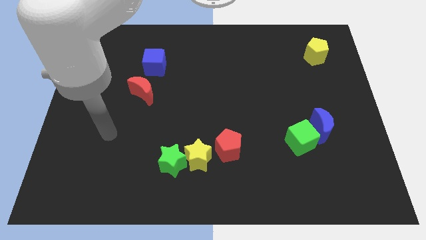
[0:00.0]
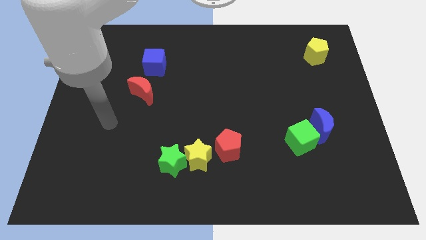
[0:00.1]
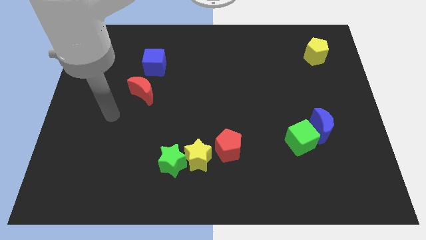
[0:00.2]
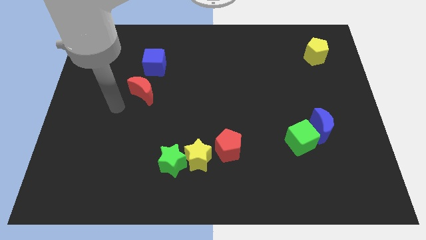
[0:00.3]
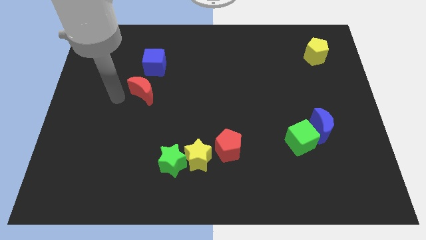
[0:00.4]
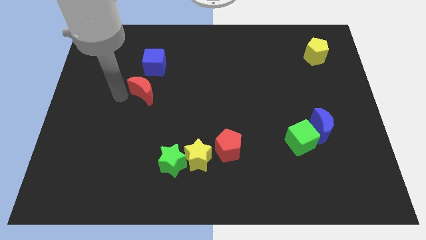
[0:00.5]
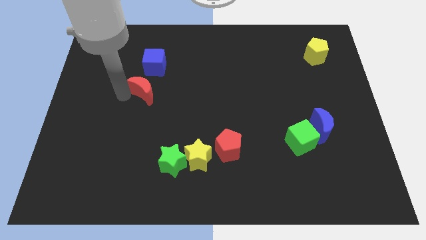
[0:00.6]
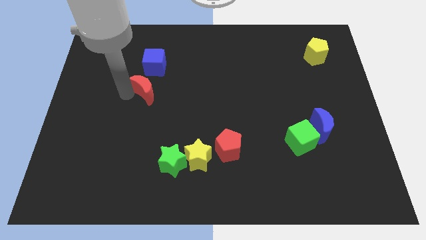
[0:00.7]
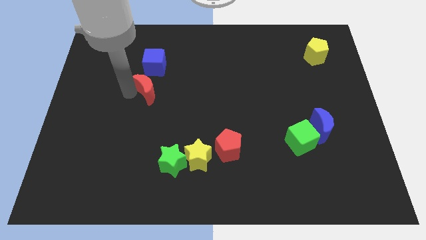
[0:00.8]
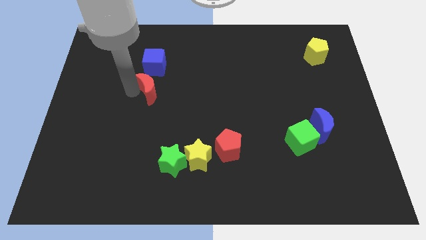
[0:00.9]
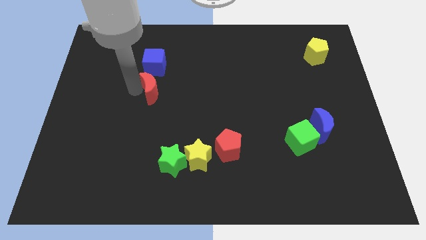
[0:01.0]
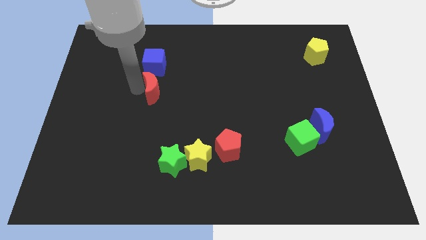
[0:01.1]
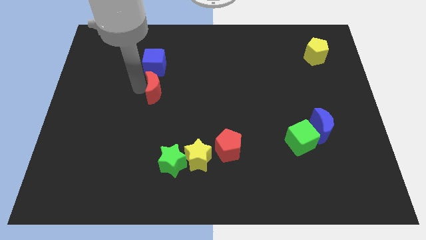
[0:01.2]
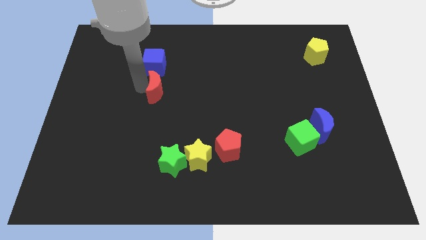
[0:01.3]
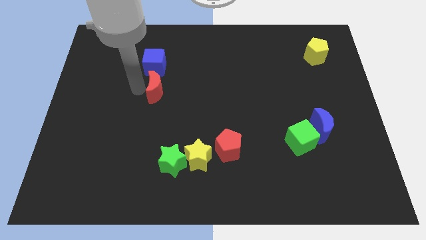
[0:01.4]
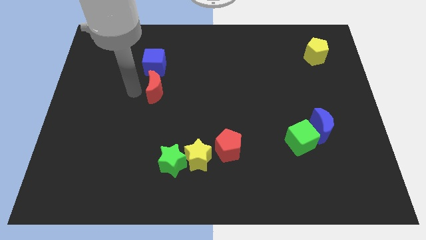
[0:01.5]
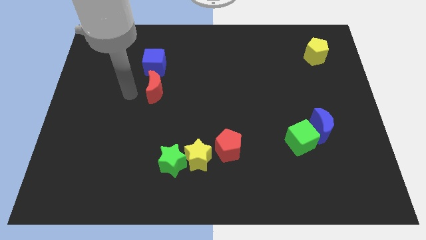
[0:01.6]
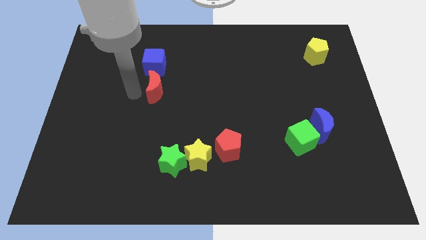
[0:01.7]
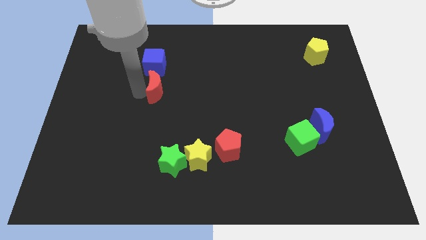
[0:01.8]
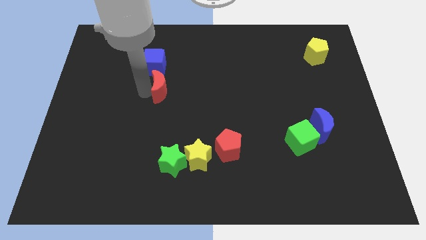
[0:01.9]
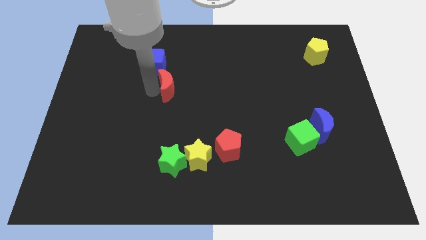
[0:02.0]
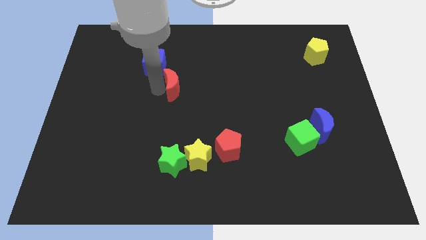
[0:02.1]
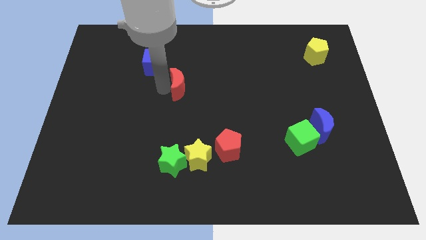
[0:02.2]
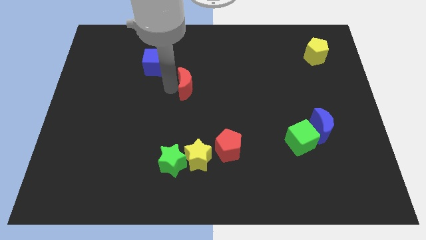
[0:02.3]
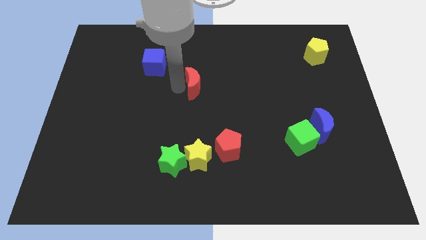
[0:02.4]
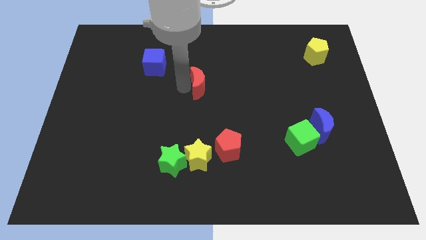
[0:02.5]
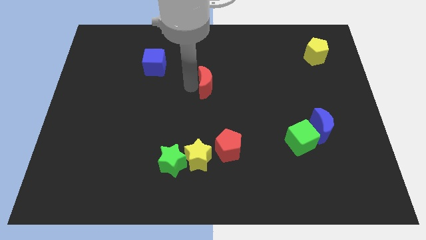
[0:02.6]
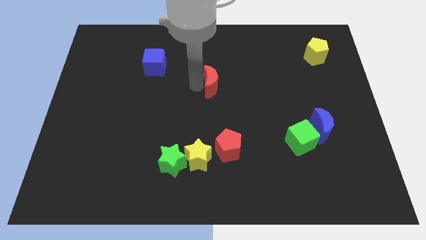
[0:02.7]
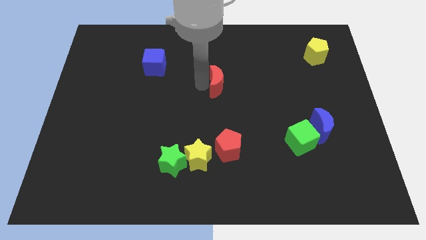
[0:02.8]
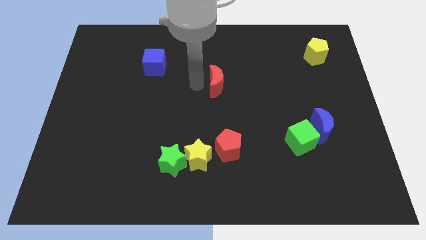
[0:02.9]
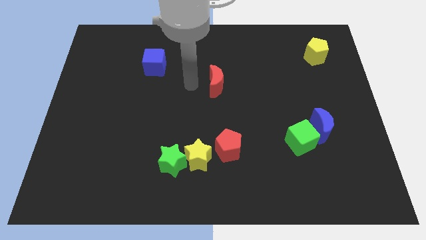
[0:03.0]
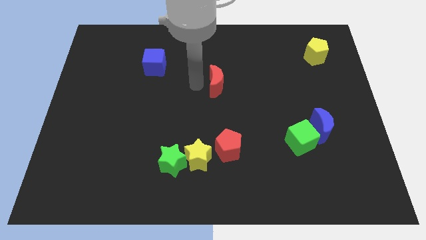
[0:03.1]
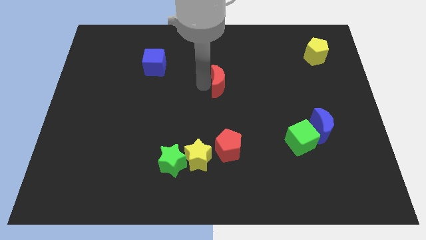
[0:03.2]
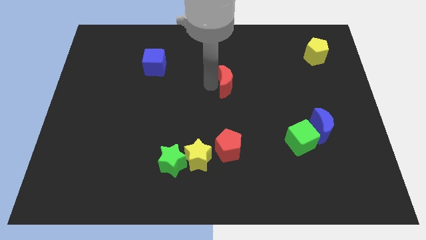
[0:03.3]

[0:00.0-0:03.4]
move the red moon right

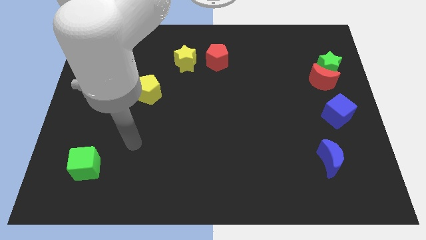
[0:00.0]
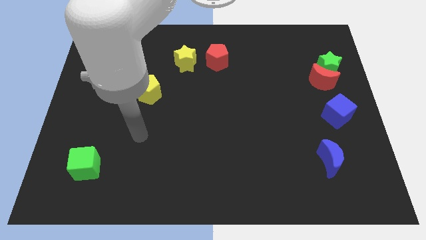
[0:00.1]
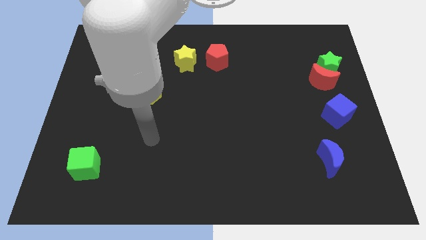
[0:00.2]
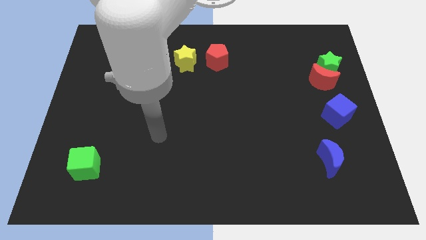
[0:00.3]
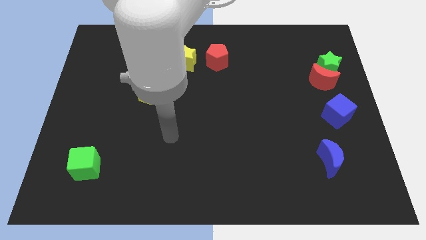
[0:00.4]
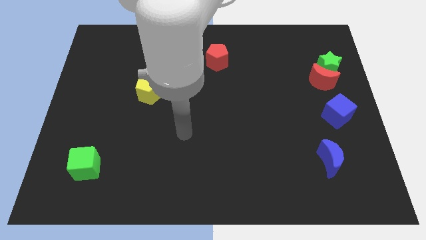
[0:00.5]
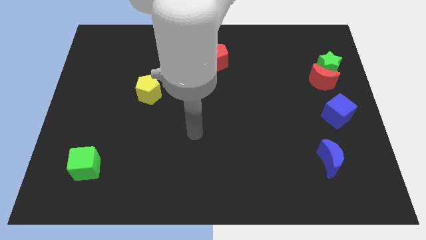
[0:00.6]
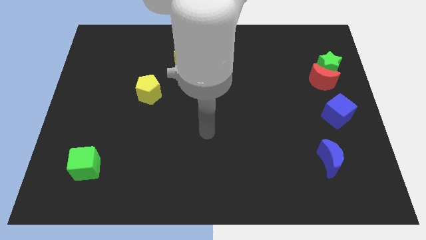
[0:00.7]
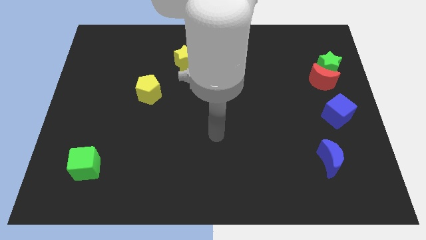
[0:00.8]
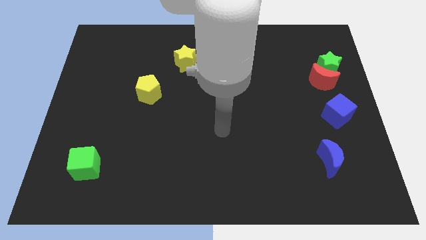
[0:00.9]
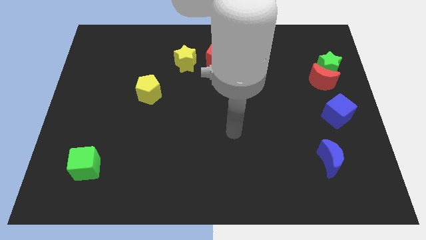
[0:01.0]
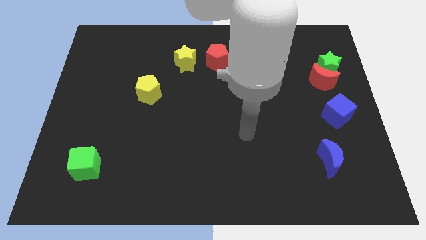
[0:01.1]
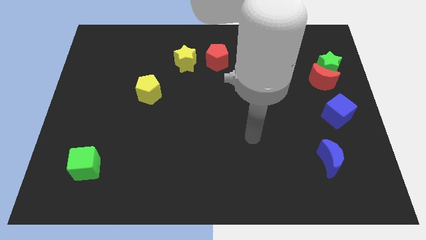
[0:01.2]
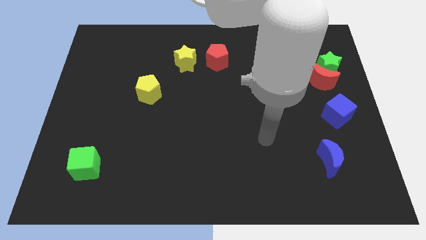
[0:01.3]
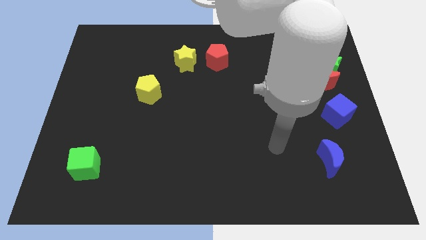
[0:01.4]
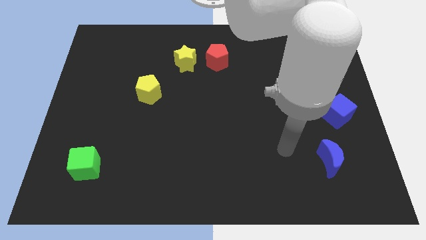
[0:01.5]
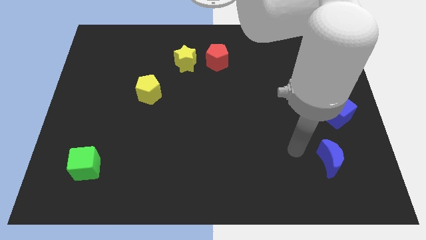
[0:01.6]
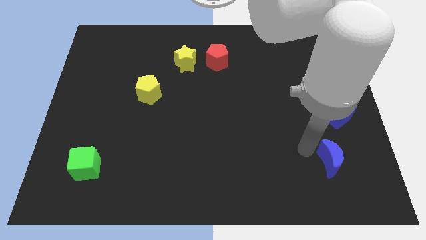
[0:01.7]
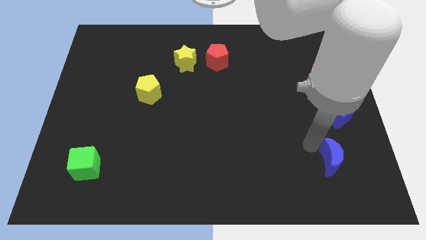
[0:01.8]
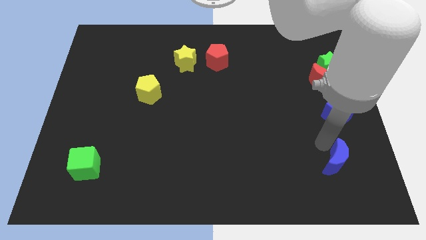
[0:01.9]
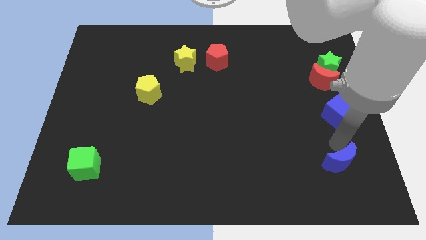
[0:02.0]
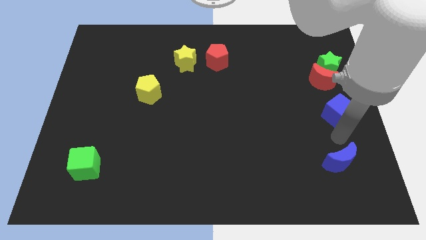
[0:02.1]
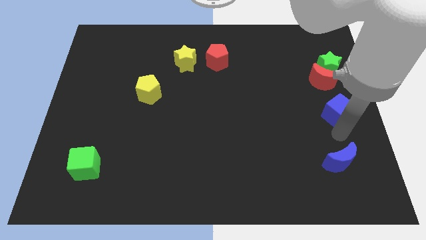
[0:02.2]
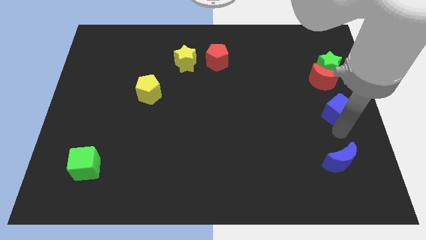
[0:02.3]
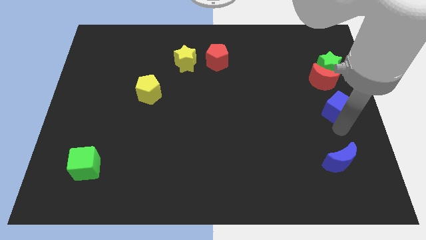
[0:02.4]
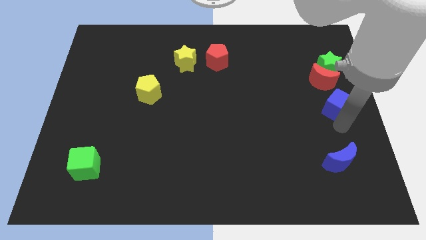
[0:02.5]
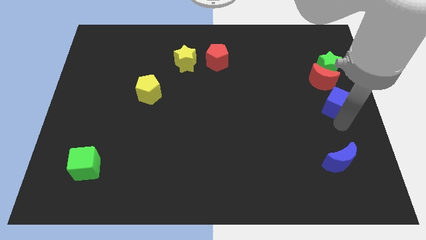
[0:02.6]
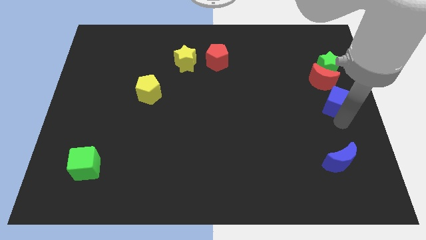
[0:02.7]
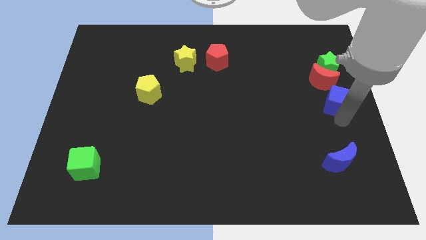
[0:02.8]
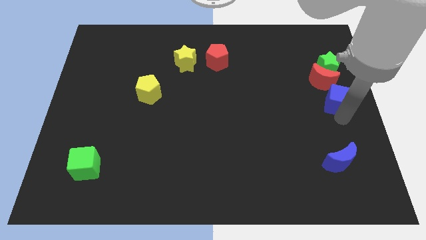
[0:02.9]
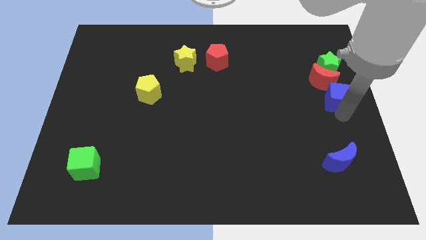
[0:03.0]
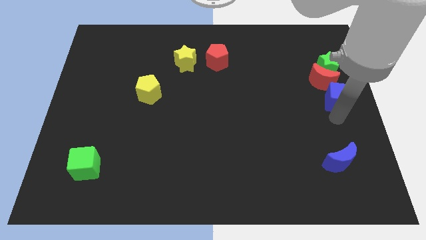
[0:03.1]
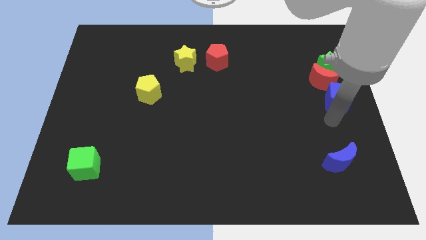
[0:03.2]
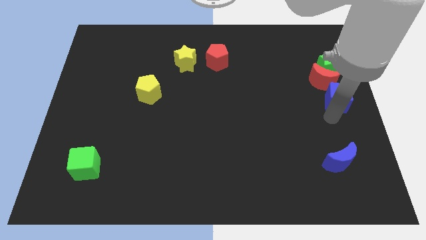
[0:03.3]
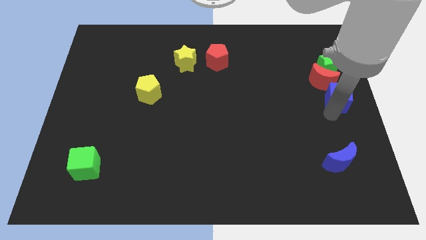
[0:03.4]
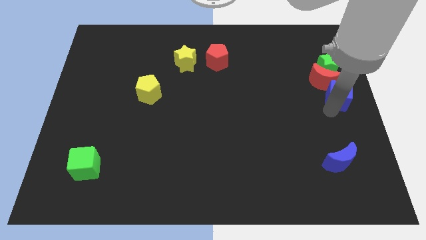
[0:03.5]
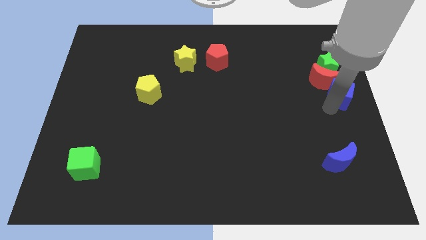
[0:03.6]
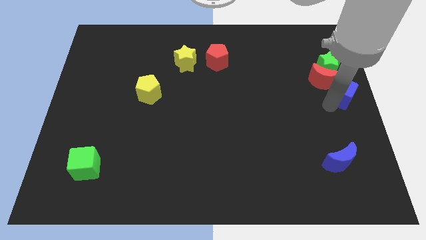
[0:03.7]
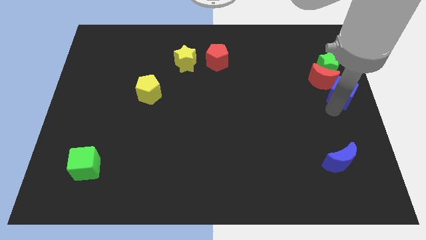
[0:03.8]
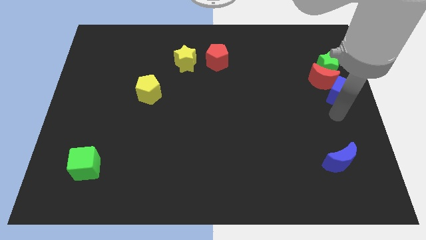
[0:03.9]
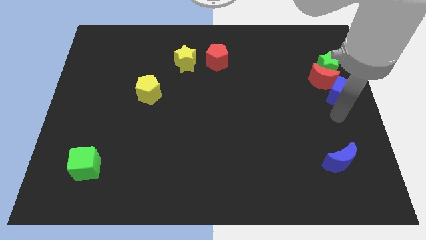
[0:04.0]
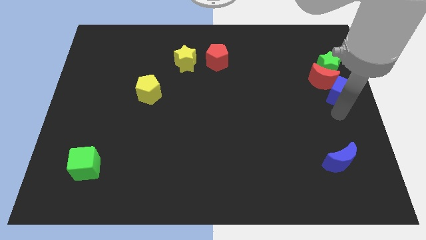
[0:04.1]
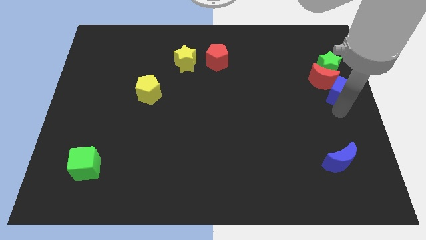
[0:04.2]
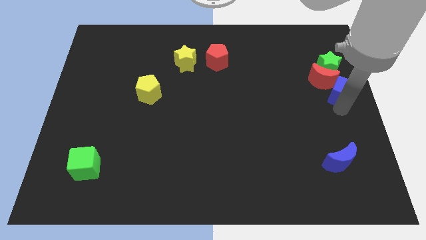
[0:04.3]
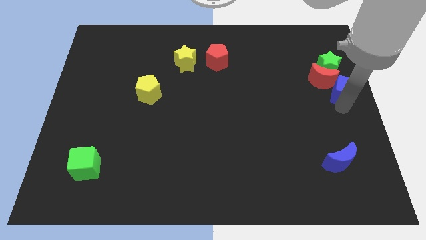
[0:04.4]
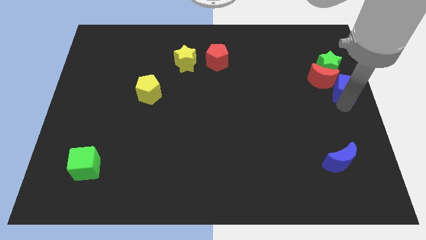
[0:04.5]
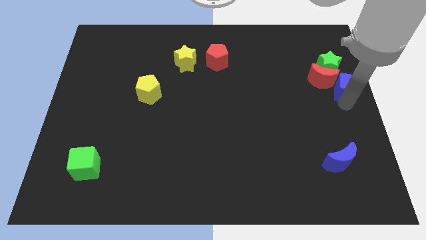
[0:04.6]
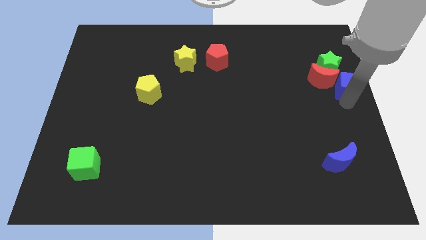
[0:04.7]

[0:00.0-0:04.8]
push the blue cube a bit up
